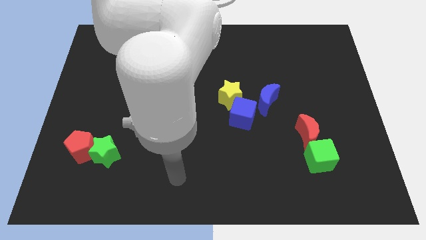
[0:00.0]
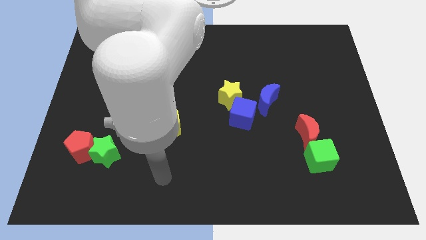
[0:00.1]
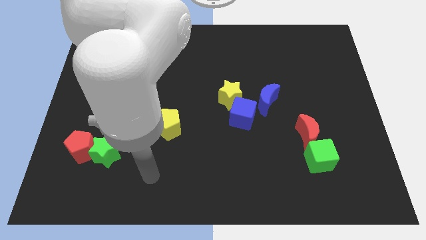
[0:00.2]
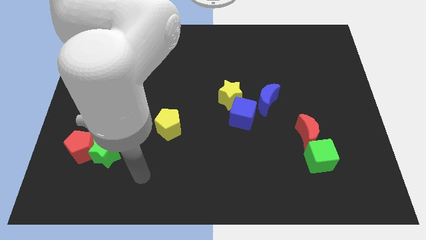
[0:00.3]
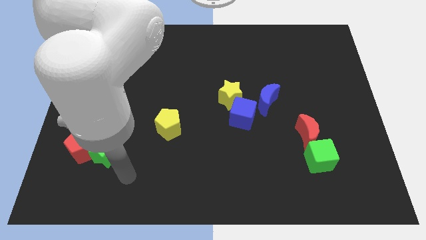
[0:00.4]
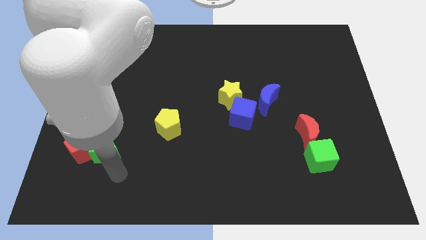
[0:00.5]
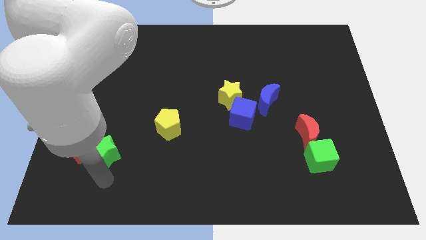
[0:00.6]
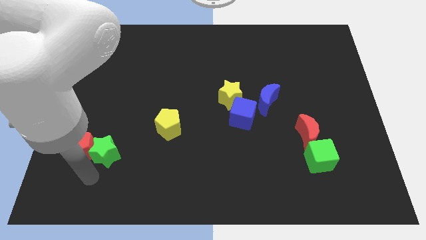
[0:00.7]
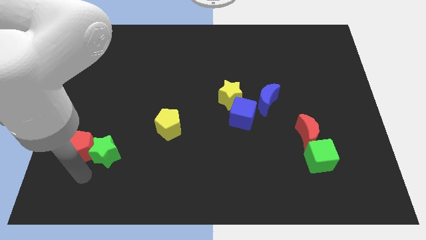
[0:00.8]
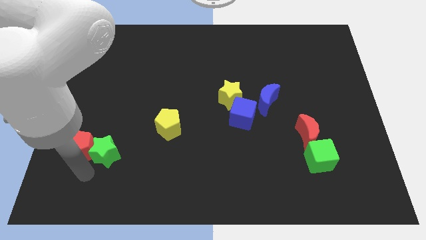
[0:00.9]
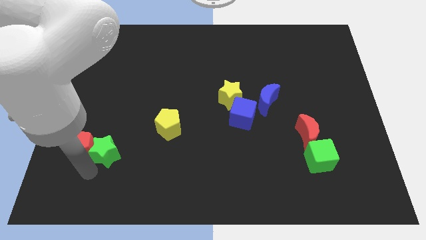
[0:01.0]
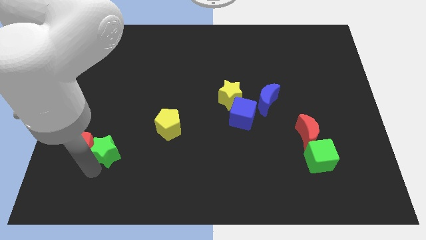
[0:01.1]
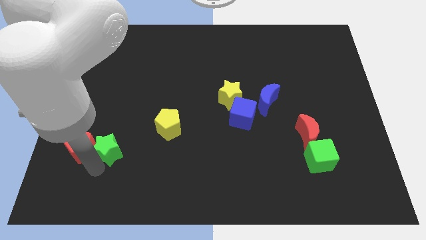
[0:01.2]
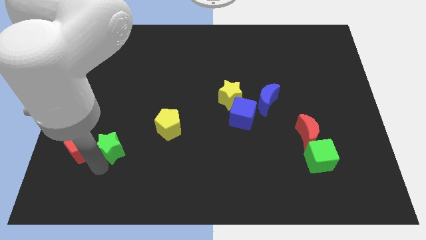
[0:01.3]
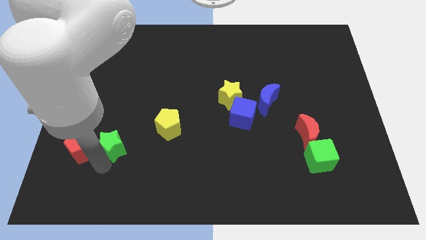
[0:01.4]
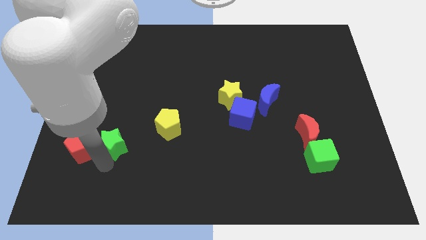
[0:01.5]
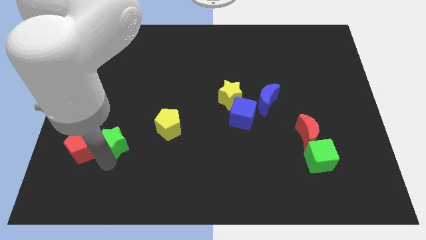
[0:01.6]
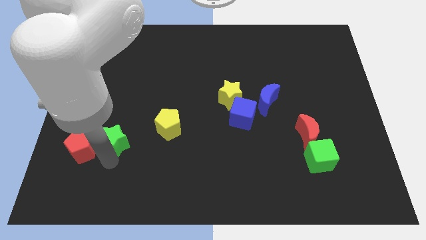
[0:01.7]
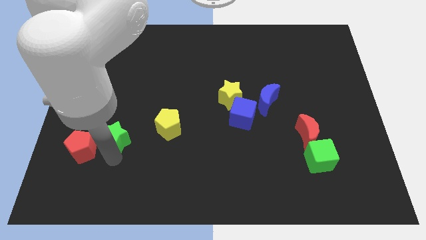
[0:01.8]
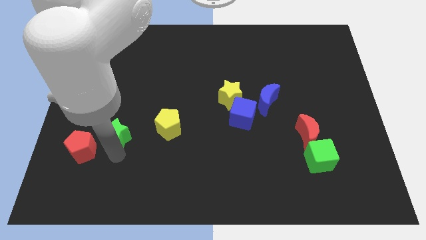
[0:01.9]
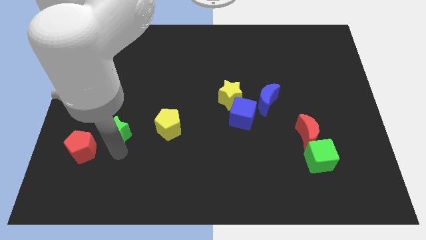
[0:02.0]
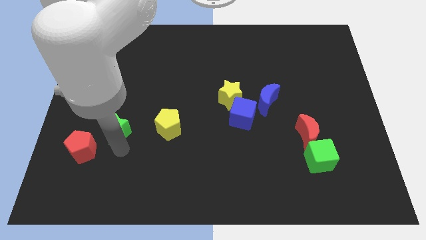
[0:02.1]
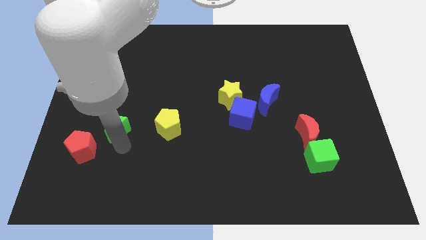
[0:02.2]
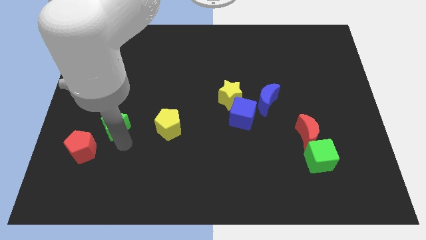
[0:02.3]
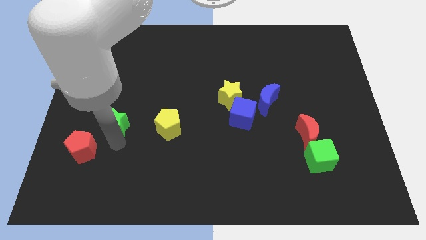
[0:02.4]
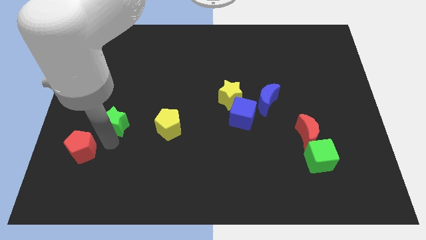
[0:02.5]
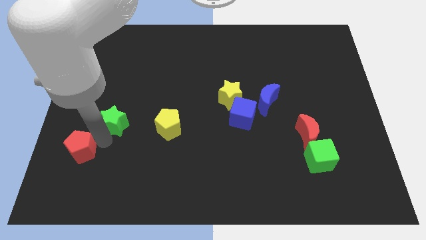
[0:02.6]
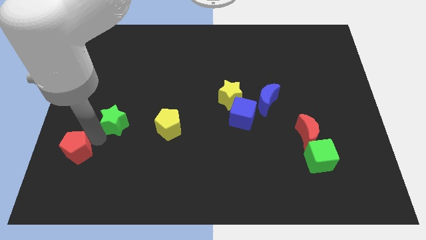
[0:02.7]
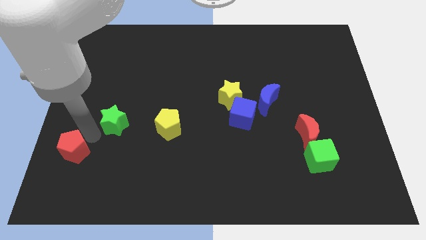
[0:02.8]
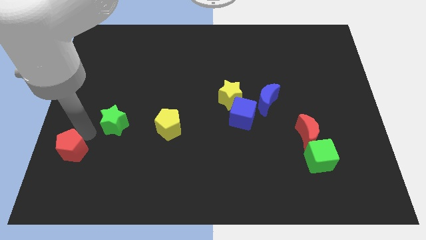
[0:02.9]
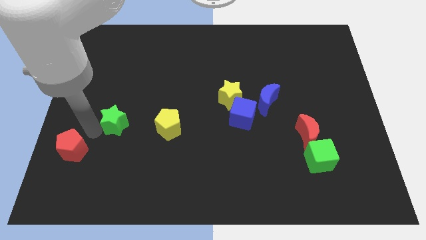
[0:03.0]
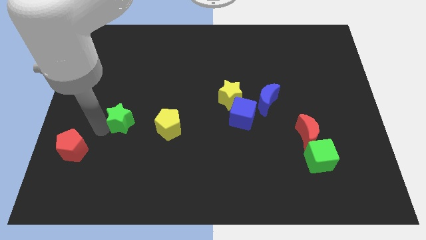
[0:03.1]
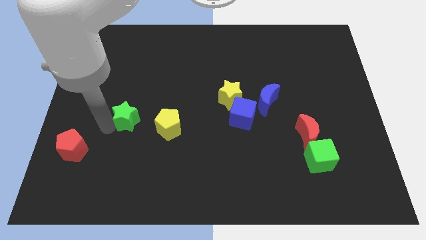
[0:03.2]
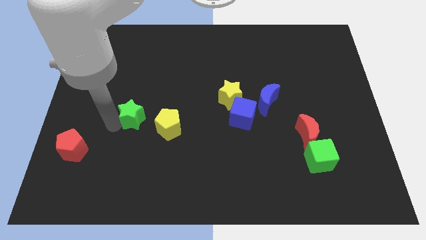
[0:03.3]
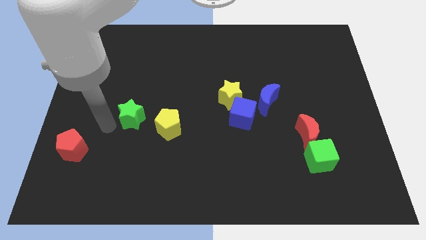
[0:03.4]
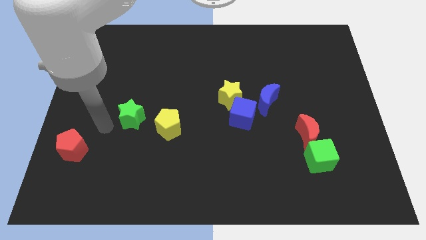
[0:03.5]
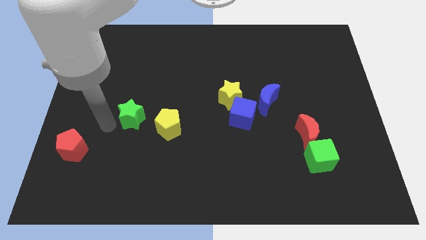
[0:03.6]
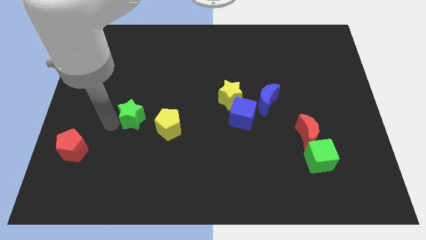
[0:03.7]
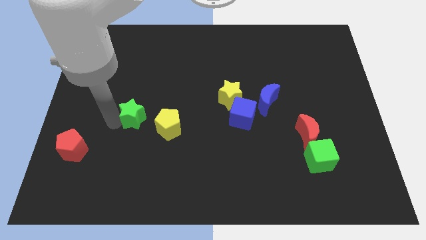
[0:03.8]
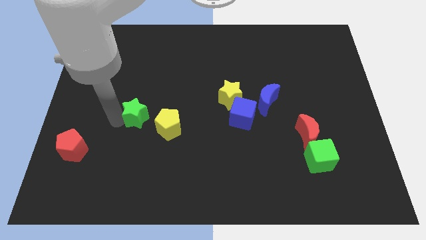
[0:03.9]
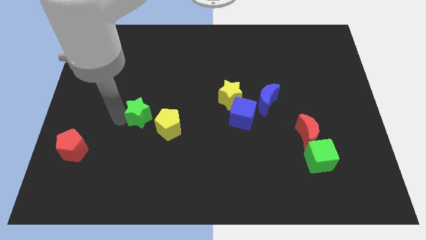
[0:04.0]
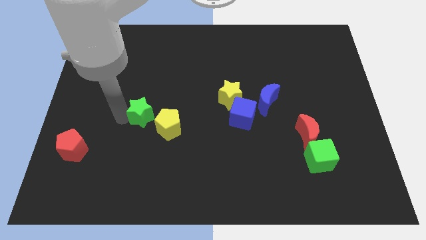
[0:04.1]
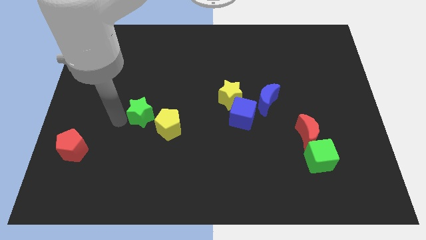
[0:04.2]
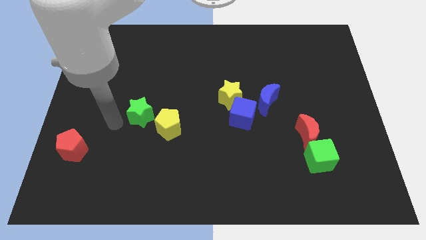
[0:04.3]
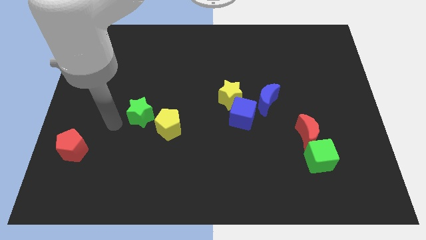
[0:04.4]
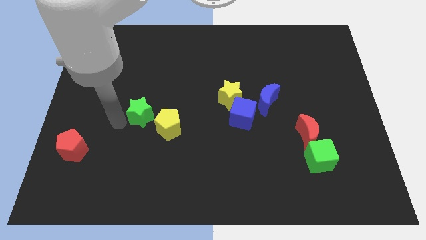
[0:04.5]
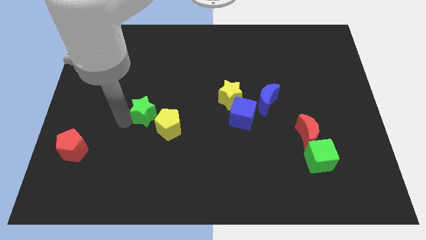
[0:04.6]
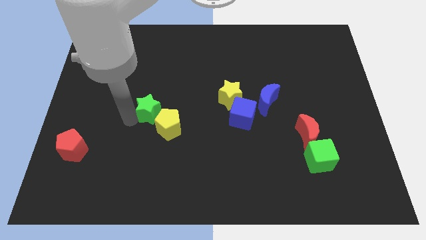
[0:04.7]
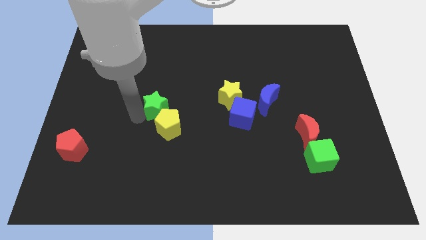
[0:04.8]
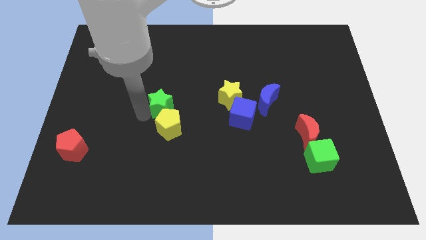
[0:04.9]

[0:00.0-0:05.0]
push the green star to the center

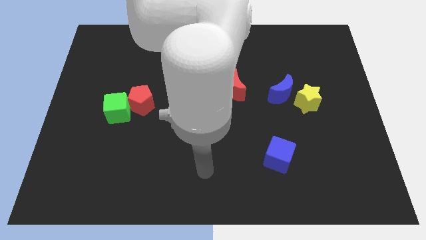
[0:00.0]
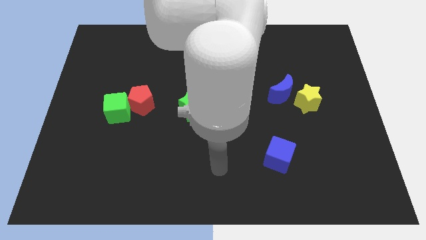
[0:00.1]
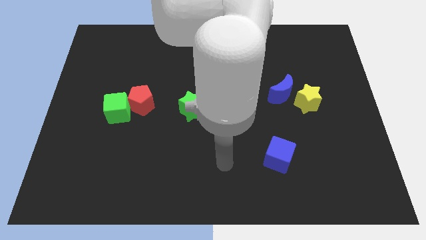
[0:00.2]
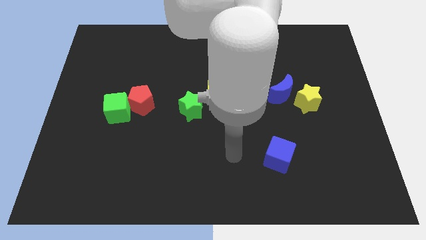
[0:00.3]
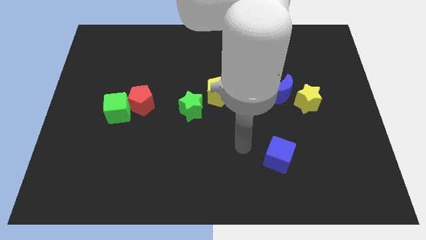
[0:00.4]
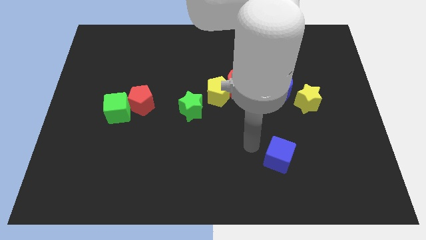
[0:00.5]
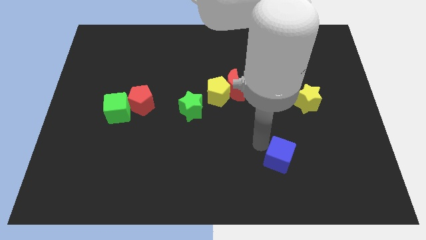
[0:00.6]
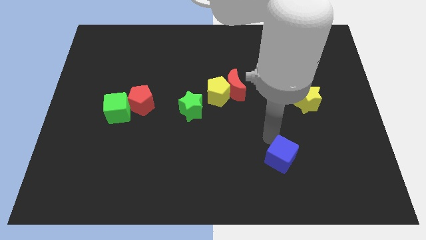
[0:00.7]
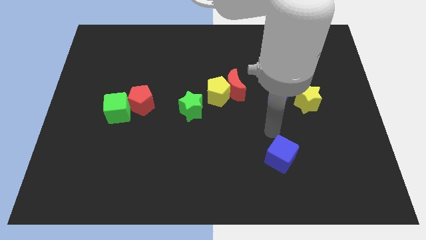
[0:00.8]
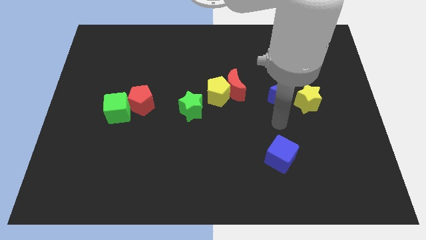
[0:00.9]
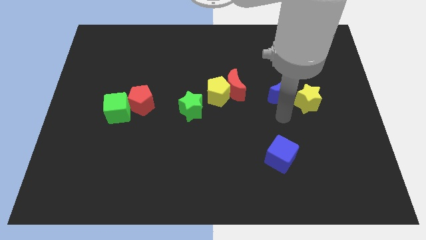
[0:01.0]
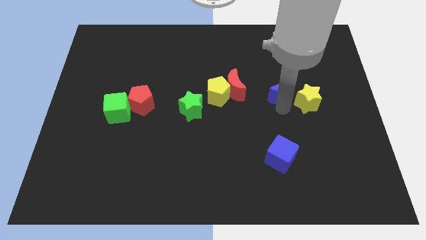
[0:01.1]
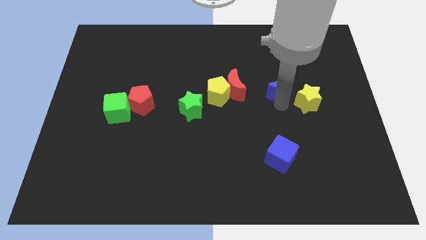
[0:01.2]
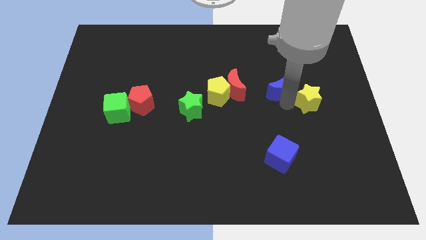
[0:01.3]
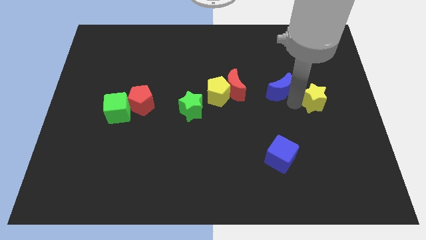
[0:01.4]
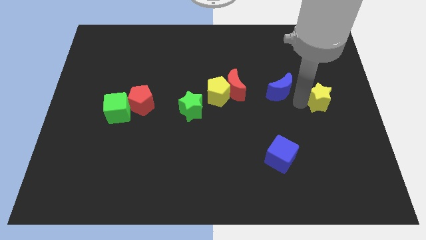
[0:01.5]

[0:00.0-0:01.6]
slide the yellow star to the right side of the board

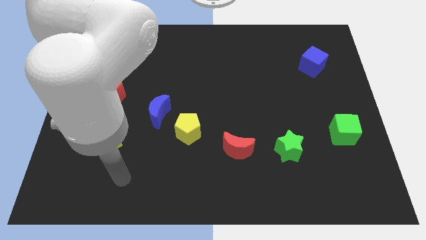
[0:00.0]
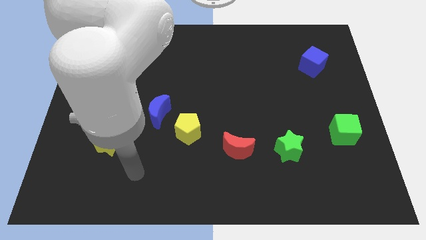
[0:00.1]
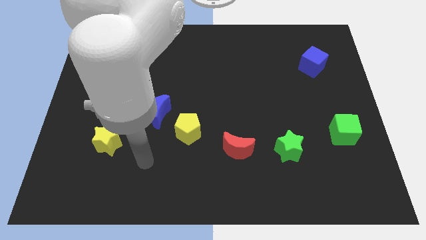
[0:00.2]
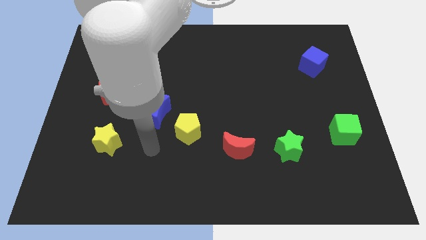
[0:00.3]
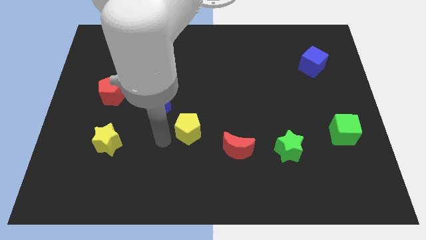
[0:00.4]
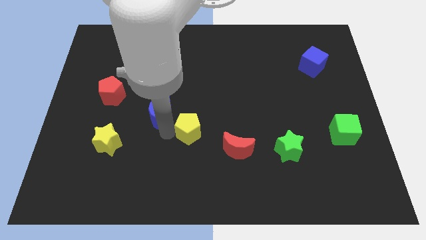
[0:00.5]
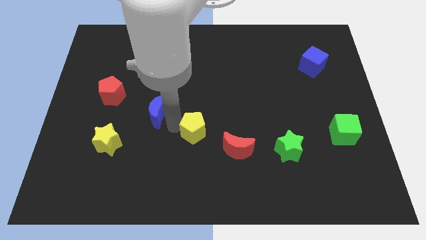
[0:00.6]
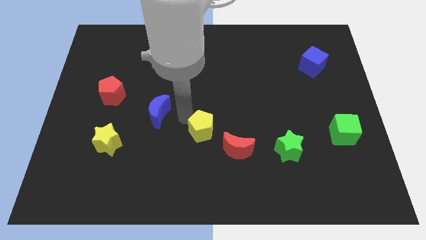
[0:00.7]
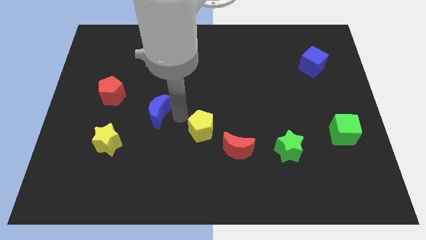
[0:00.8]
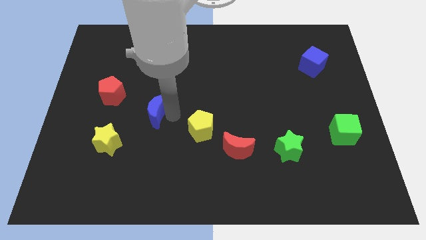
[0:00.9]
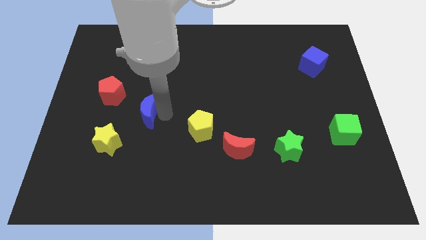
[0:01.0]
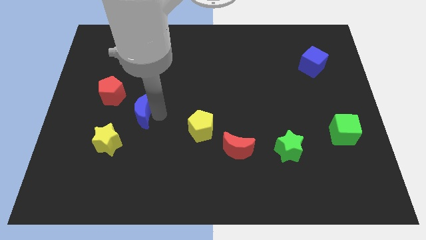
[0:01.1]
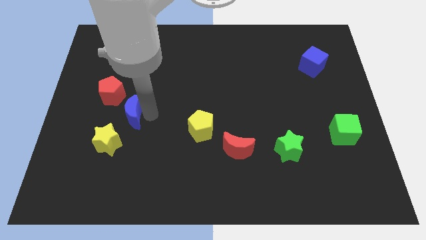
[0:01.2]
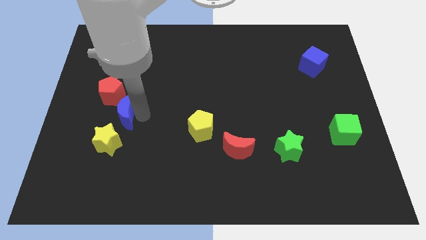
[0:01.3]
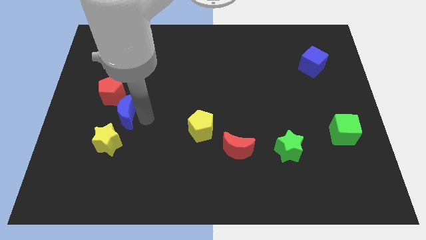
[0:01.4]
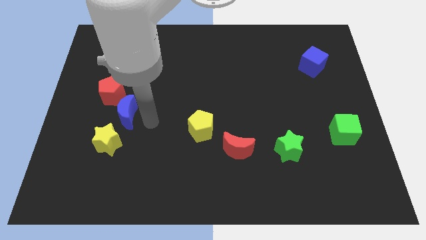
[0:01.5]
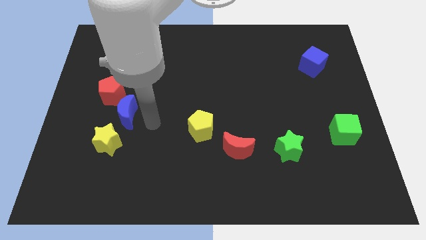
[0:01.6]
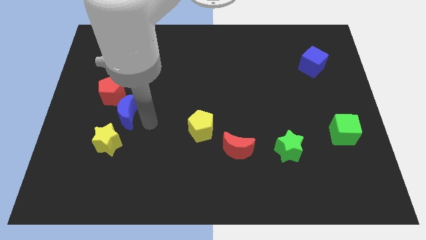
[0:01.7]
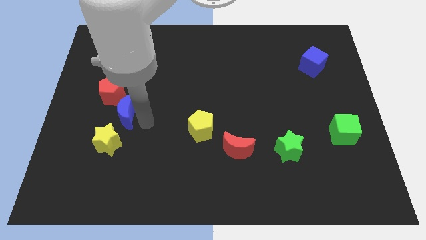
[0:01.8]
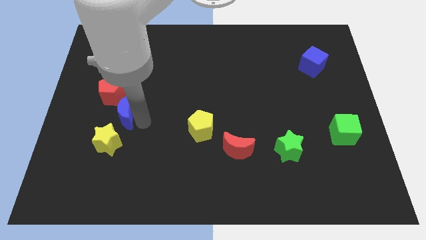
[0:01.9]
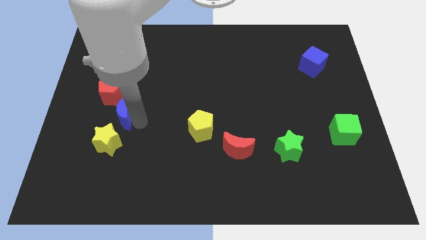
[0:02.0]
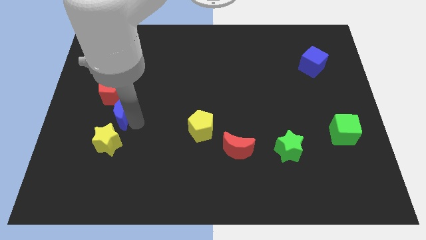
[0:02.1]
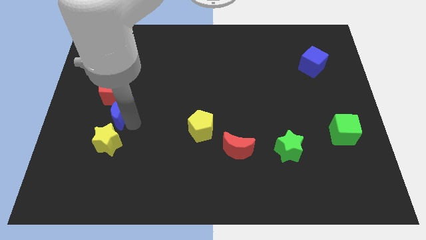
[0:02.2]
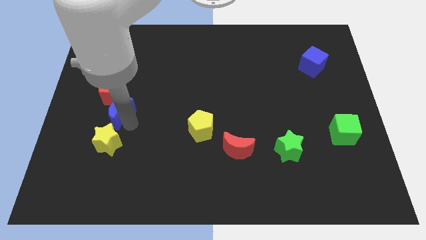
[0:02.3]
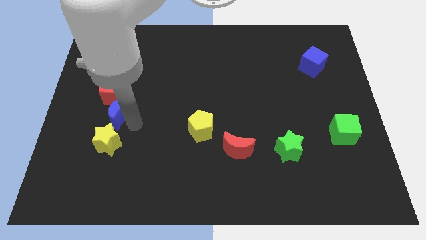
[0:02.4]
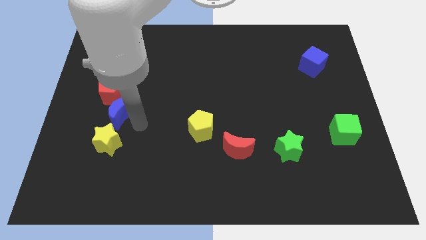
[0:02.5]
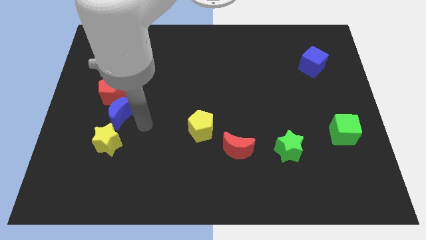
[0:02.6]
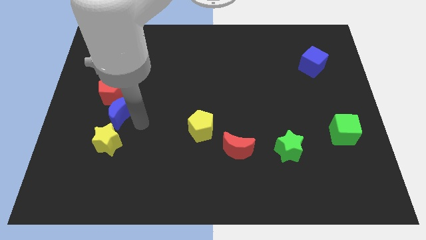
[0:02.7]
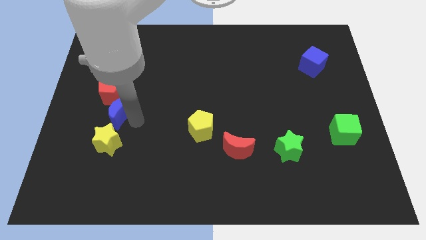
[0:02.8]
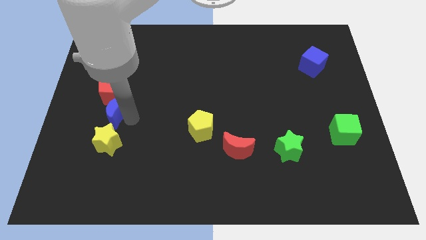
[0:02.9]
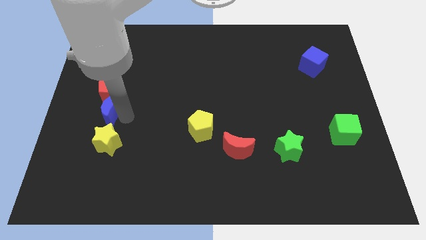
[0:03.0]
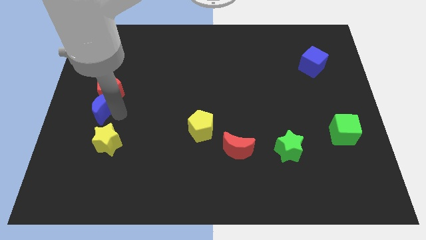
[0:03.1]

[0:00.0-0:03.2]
push the blue moon to the left side
